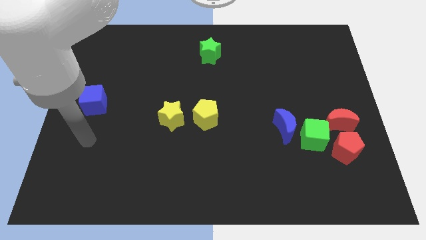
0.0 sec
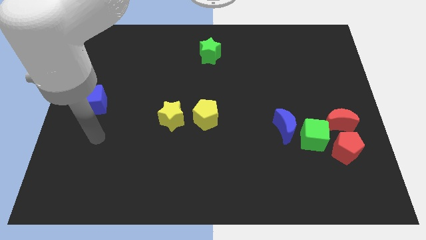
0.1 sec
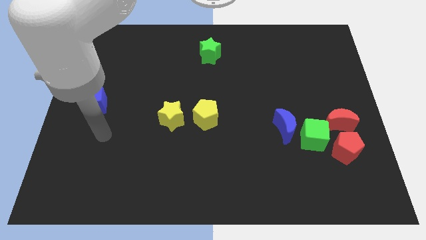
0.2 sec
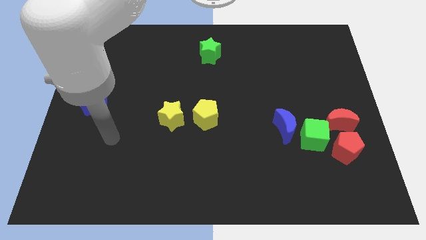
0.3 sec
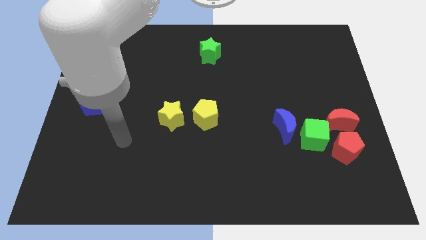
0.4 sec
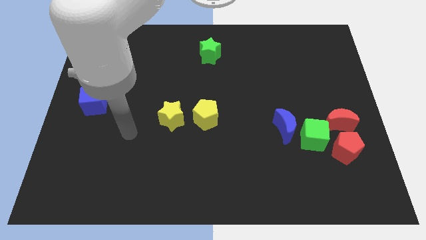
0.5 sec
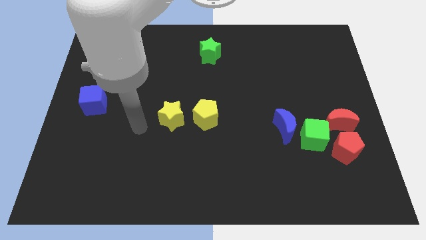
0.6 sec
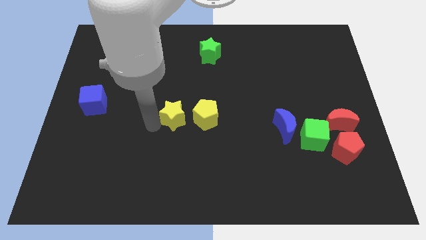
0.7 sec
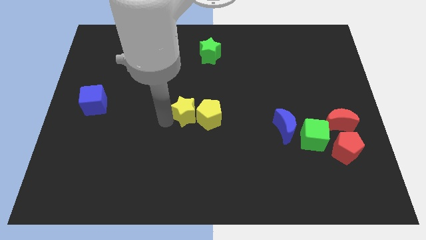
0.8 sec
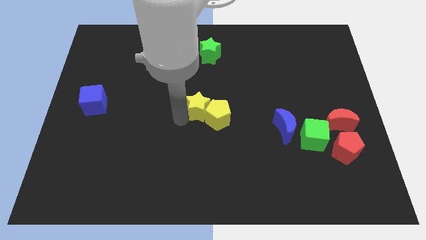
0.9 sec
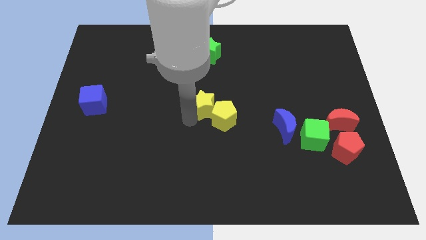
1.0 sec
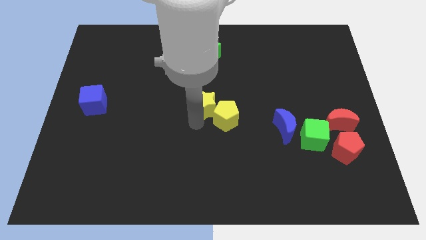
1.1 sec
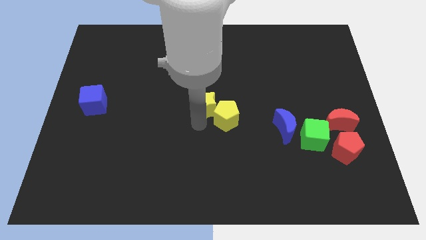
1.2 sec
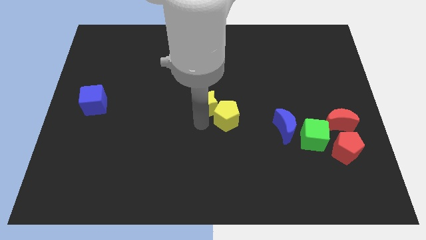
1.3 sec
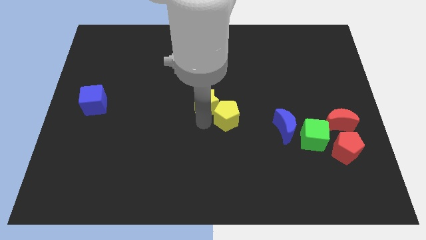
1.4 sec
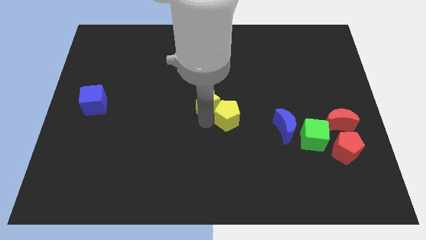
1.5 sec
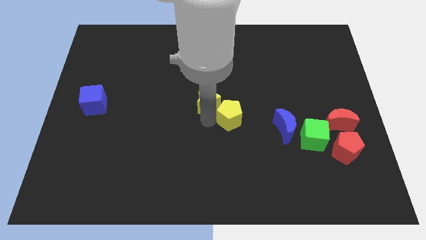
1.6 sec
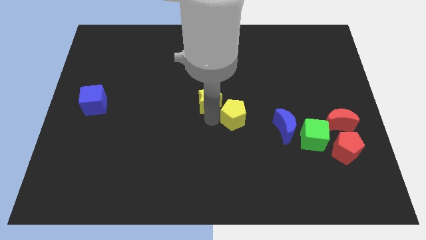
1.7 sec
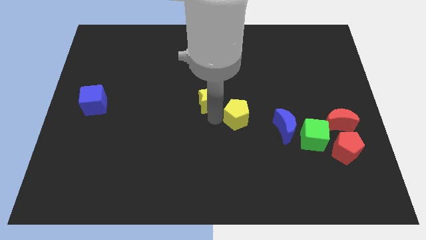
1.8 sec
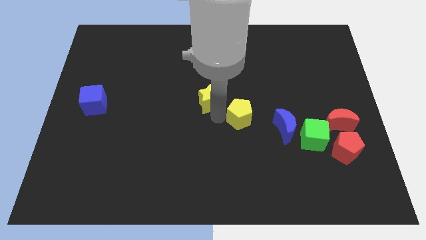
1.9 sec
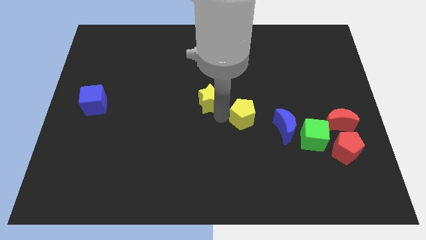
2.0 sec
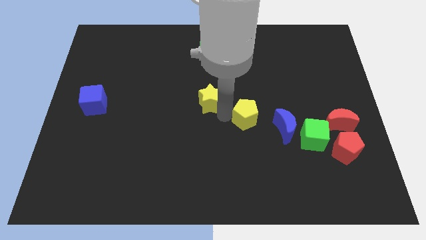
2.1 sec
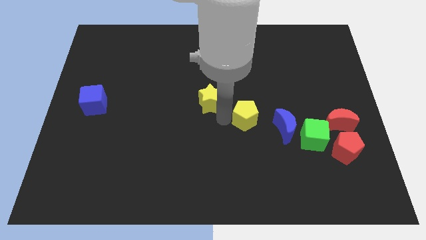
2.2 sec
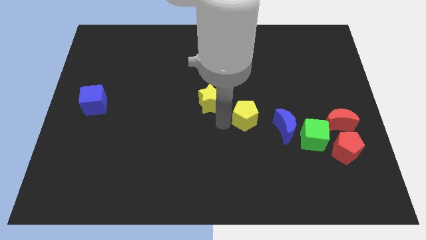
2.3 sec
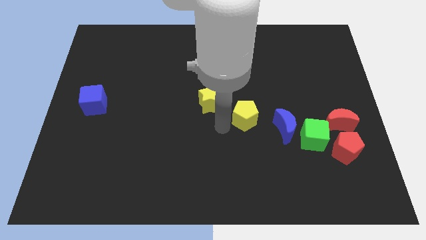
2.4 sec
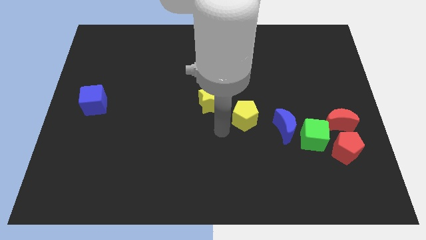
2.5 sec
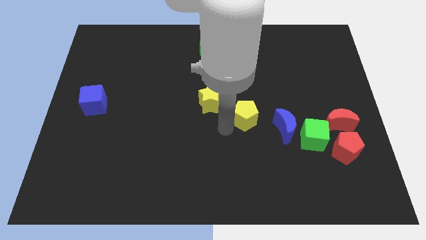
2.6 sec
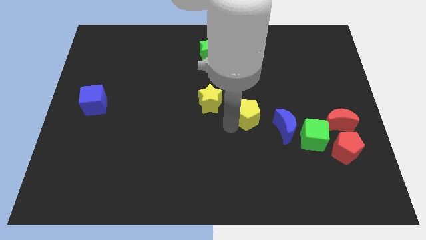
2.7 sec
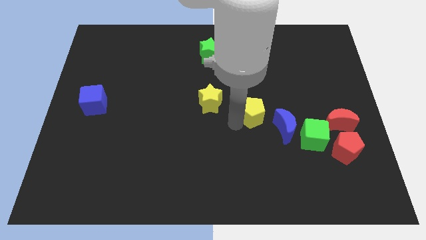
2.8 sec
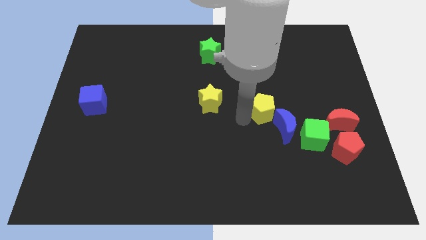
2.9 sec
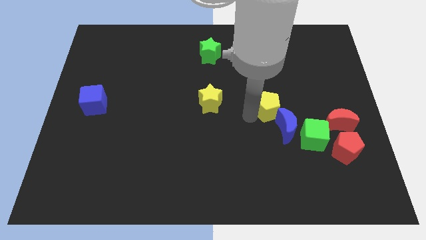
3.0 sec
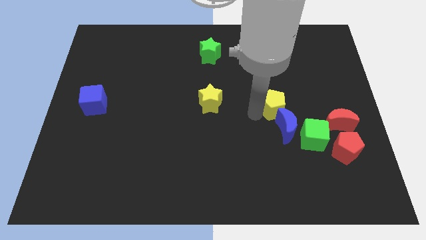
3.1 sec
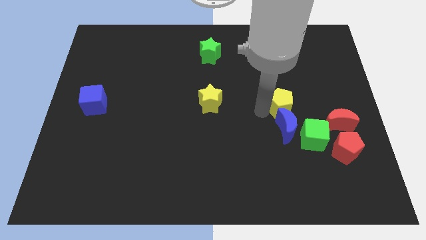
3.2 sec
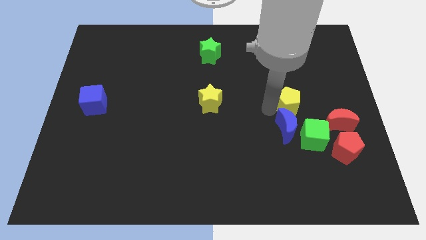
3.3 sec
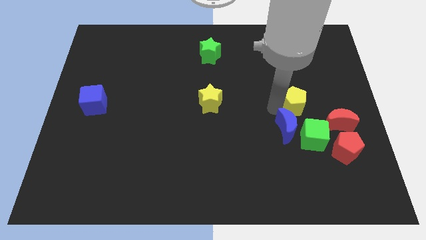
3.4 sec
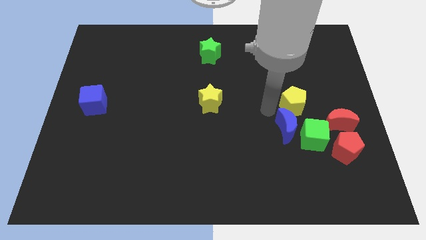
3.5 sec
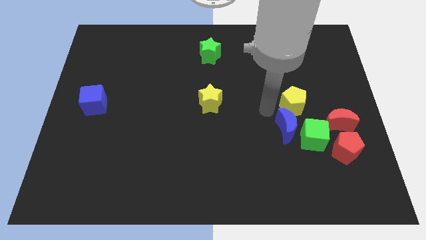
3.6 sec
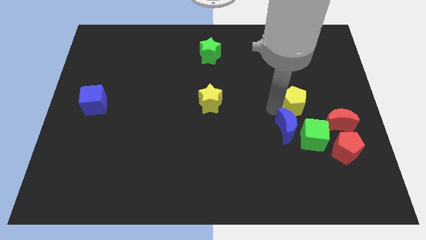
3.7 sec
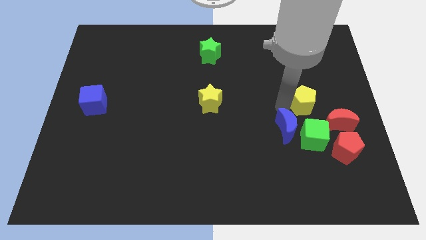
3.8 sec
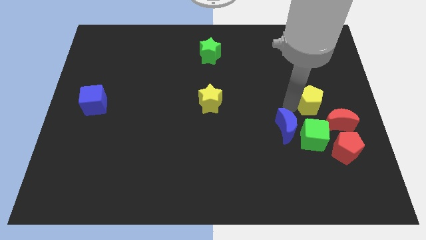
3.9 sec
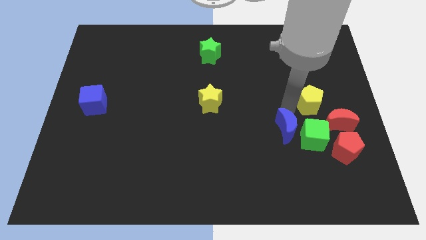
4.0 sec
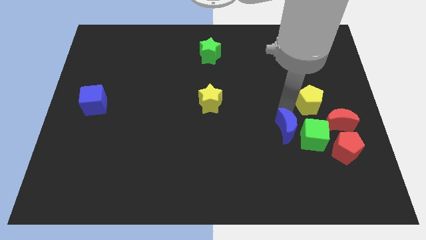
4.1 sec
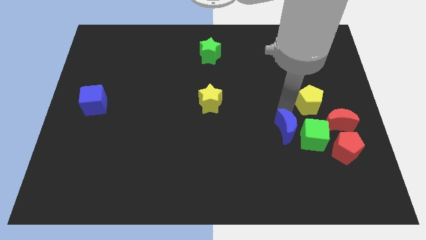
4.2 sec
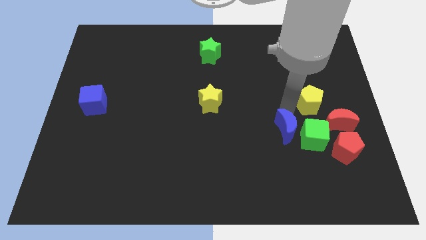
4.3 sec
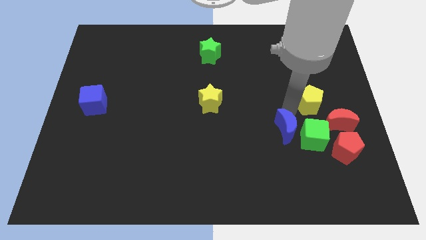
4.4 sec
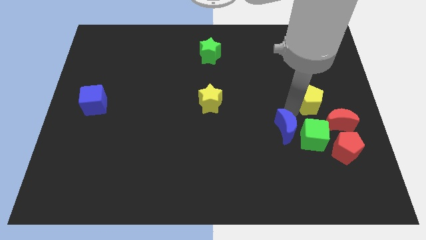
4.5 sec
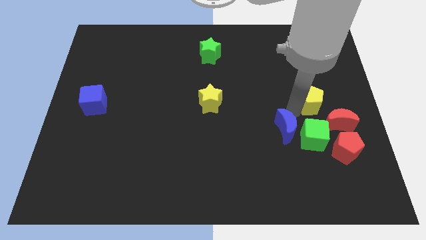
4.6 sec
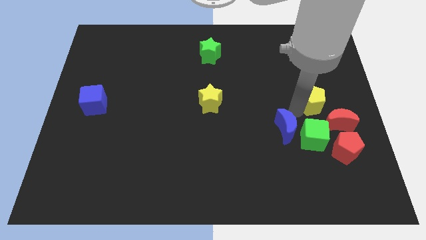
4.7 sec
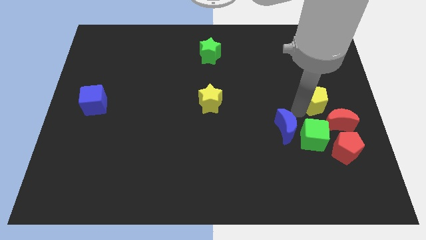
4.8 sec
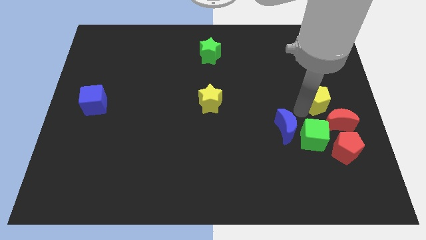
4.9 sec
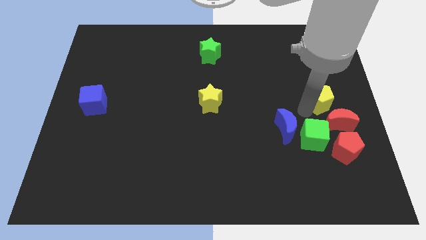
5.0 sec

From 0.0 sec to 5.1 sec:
put the yellow pentagon to the right side of the board

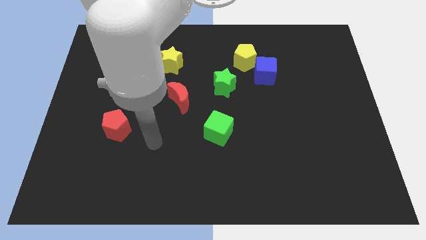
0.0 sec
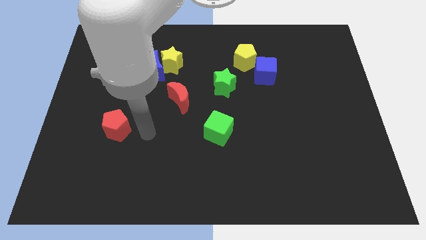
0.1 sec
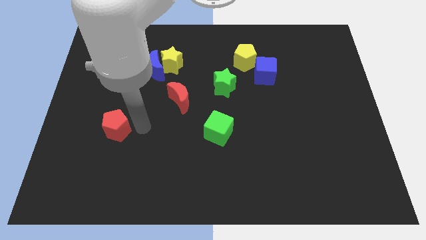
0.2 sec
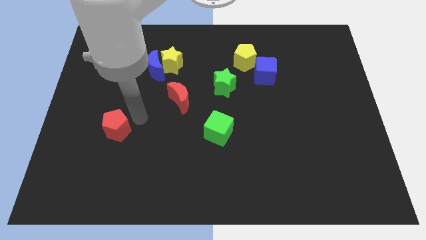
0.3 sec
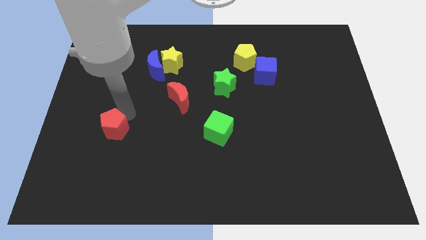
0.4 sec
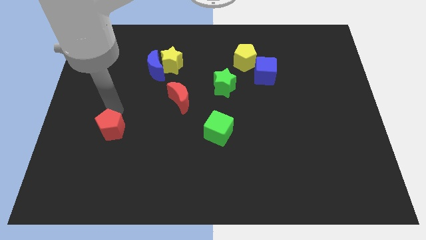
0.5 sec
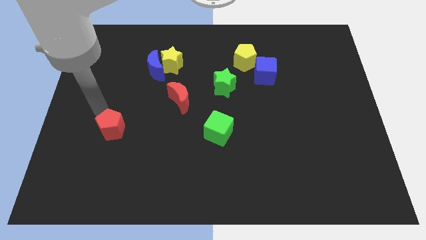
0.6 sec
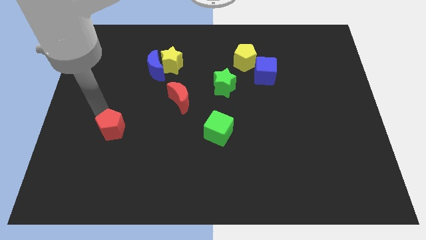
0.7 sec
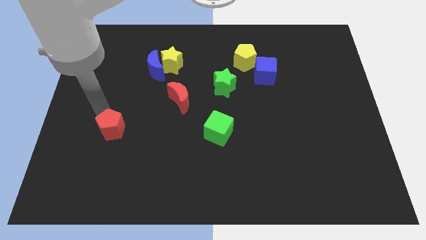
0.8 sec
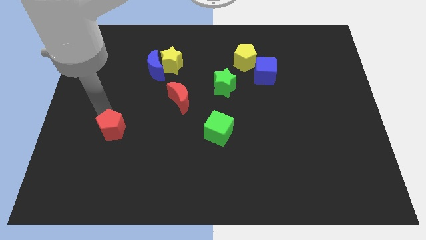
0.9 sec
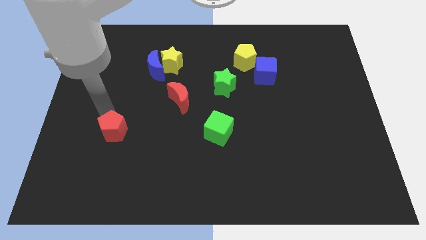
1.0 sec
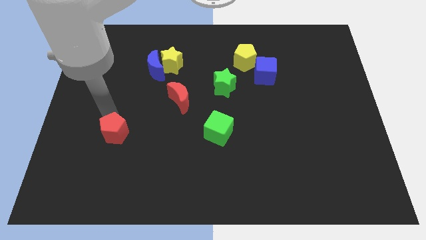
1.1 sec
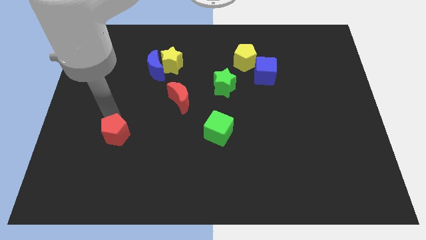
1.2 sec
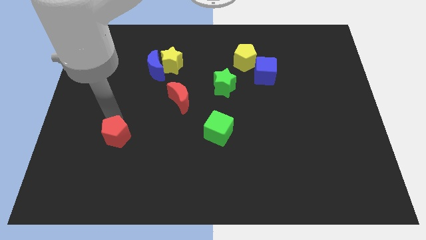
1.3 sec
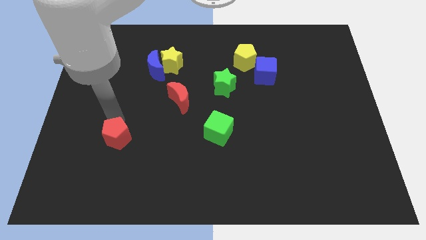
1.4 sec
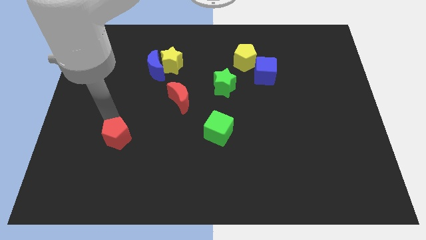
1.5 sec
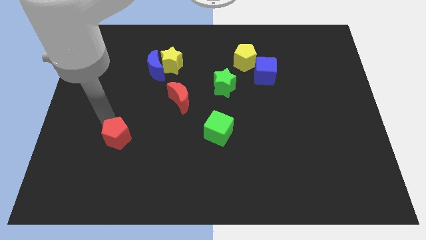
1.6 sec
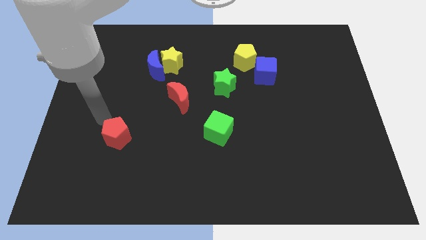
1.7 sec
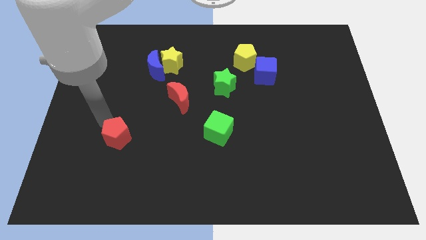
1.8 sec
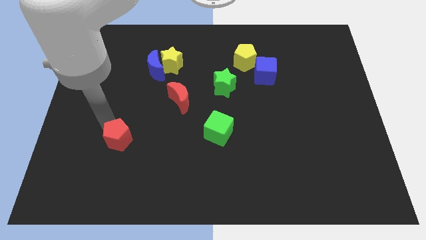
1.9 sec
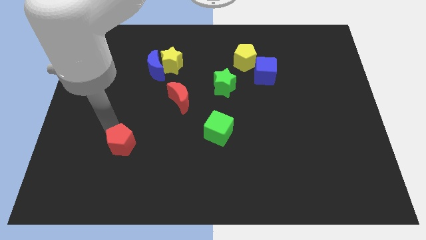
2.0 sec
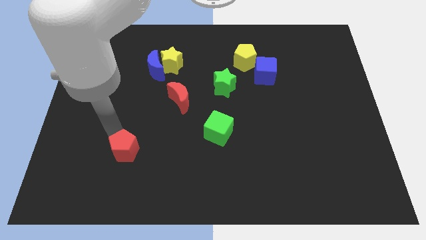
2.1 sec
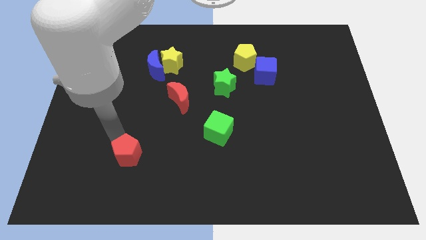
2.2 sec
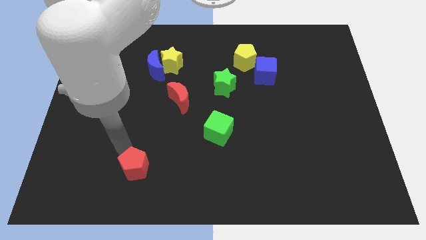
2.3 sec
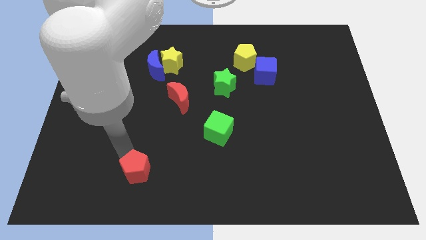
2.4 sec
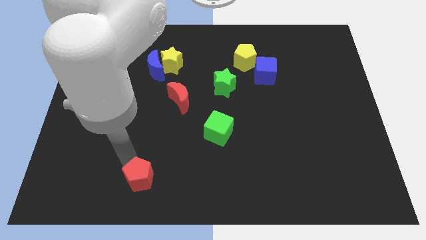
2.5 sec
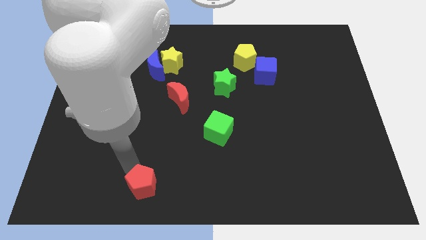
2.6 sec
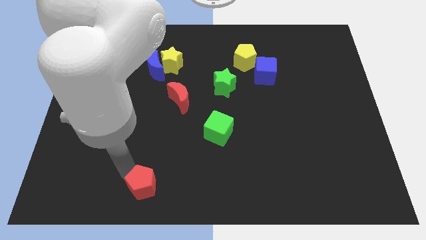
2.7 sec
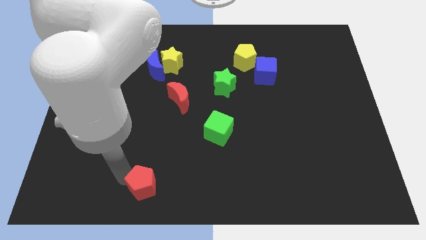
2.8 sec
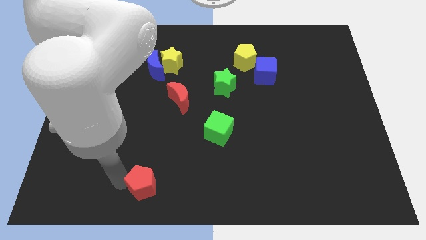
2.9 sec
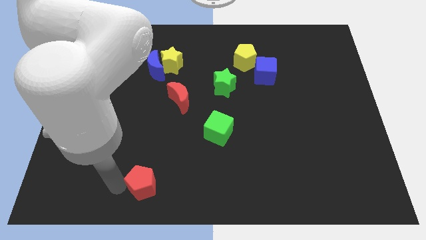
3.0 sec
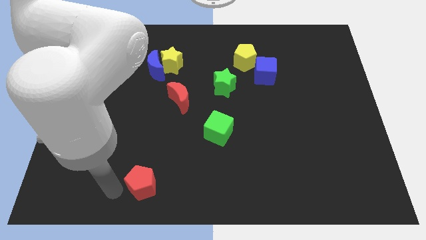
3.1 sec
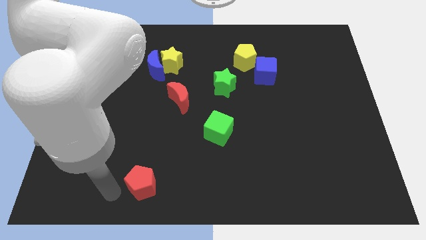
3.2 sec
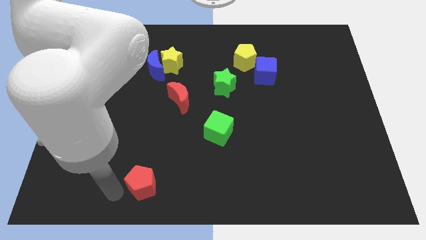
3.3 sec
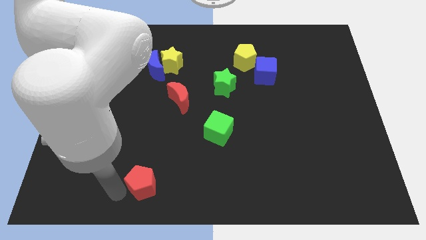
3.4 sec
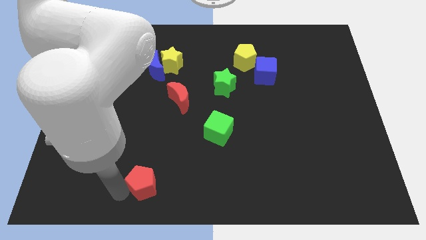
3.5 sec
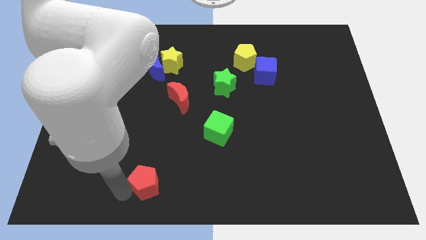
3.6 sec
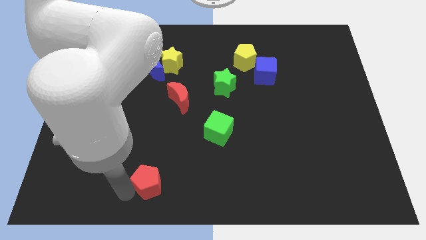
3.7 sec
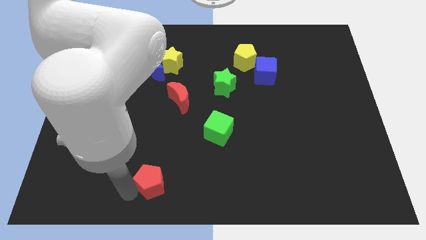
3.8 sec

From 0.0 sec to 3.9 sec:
push the red pentagon to the bottom
